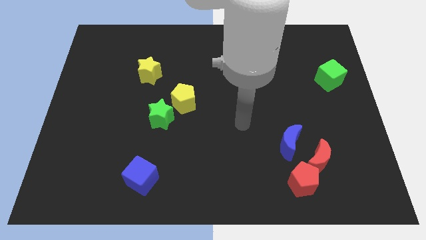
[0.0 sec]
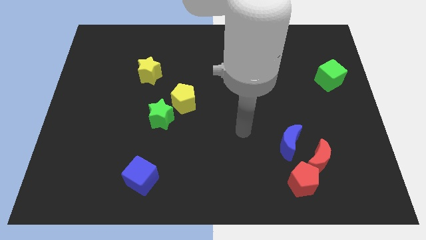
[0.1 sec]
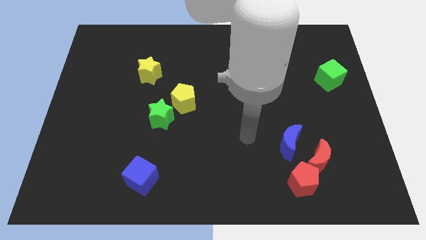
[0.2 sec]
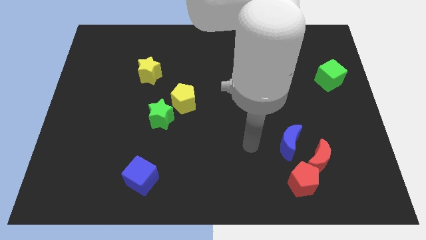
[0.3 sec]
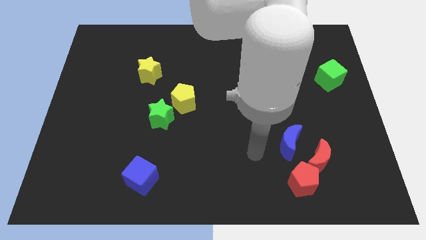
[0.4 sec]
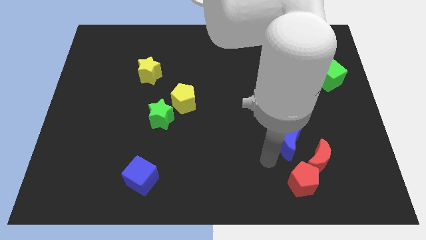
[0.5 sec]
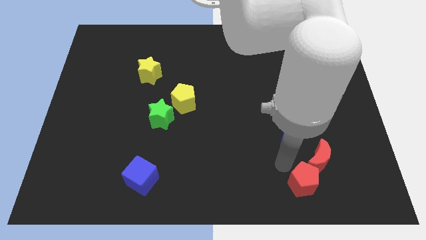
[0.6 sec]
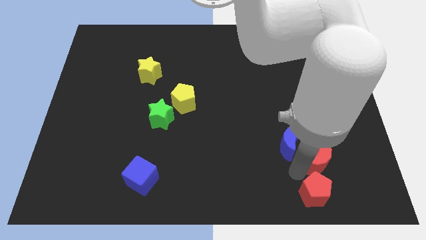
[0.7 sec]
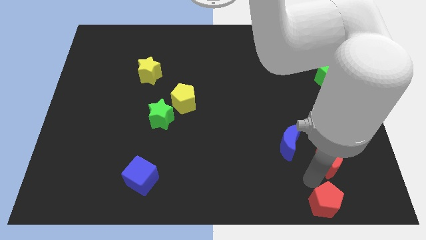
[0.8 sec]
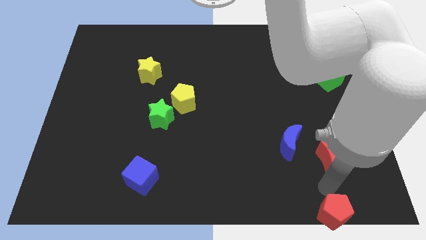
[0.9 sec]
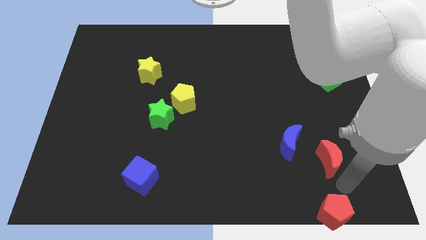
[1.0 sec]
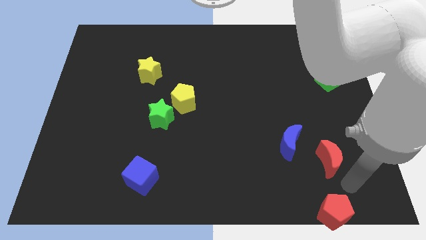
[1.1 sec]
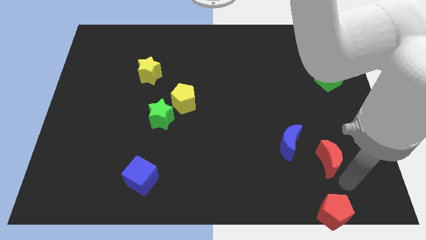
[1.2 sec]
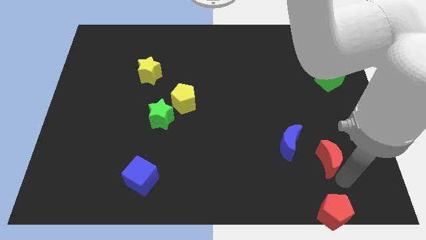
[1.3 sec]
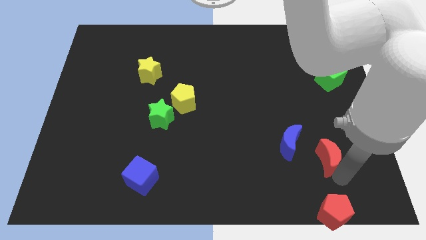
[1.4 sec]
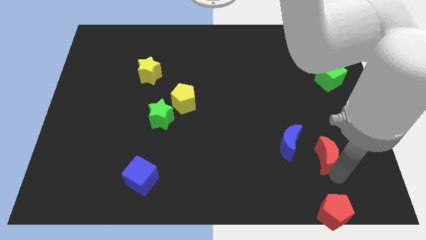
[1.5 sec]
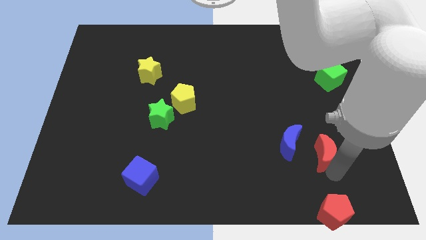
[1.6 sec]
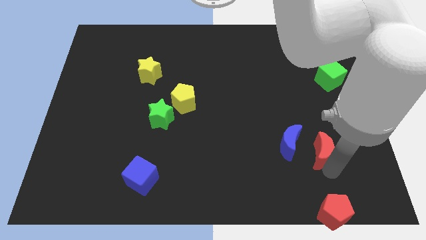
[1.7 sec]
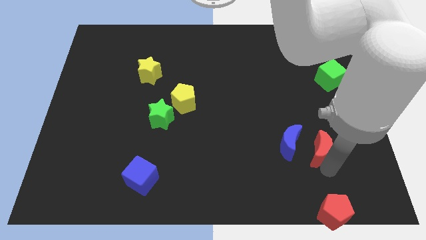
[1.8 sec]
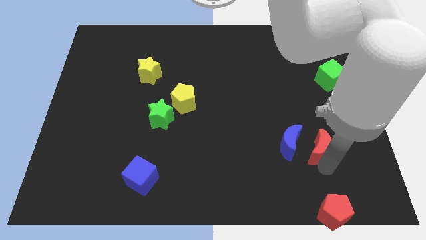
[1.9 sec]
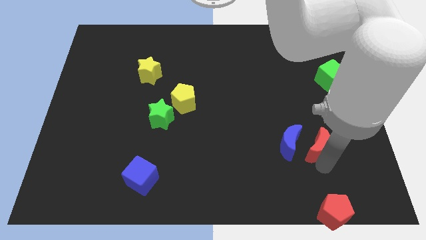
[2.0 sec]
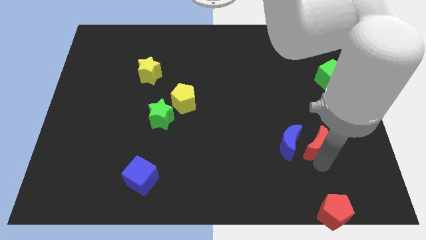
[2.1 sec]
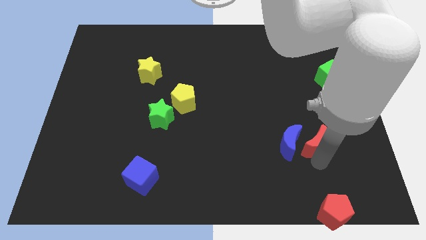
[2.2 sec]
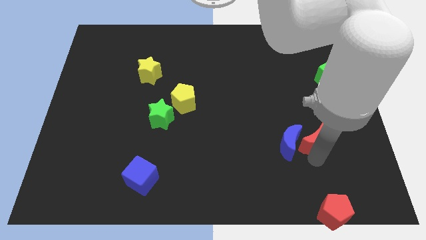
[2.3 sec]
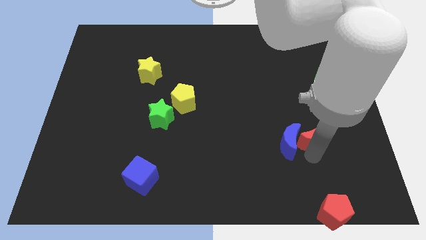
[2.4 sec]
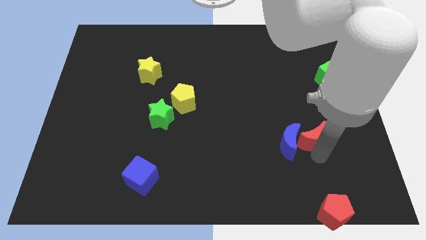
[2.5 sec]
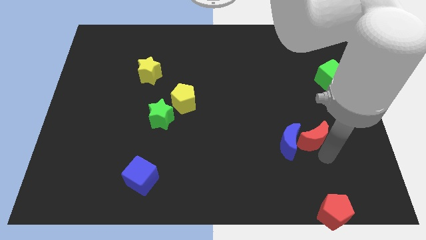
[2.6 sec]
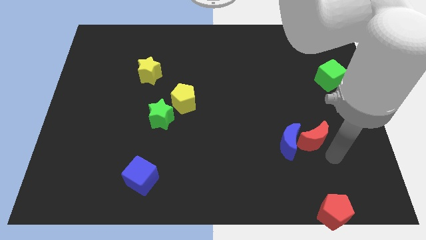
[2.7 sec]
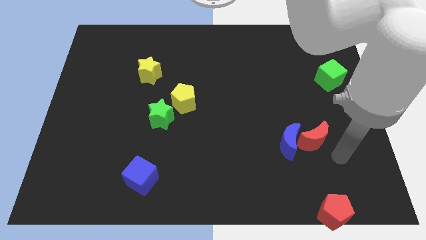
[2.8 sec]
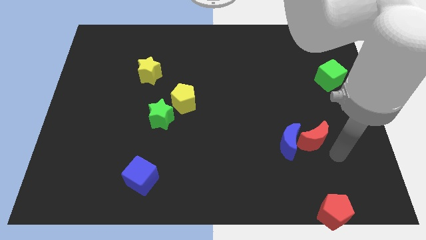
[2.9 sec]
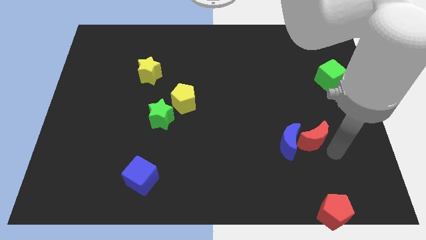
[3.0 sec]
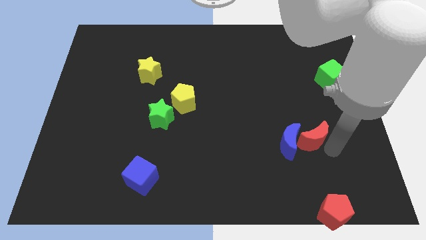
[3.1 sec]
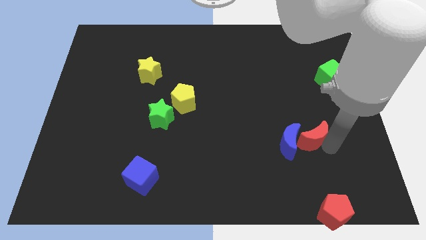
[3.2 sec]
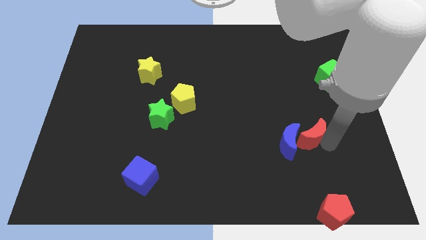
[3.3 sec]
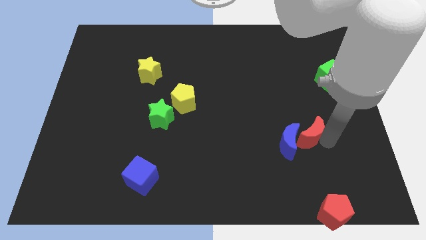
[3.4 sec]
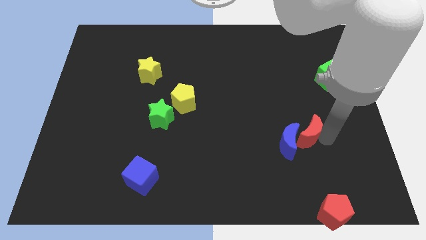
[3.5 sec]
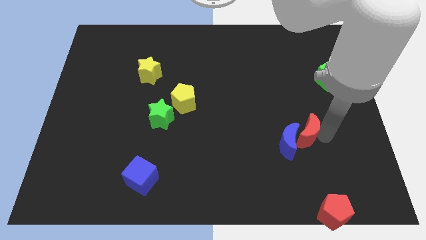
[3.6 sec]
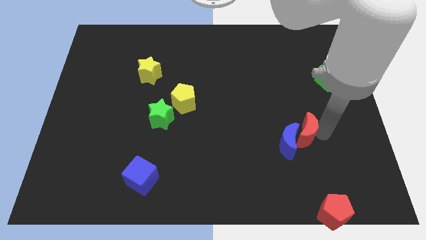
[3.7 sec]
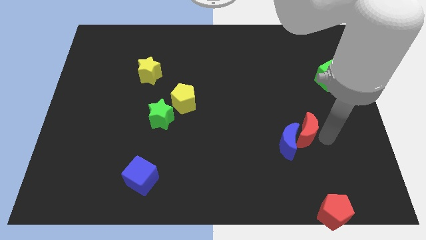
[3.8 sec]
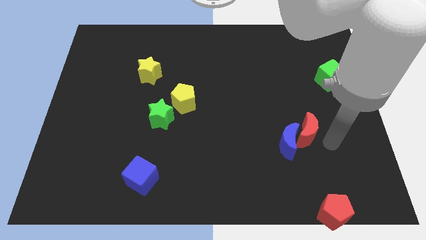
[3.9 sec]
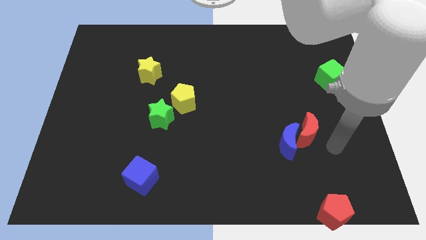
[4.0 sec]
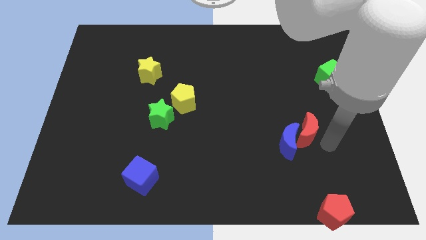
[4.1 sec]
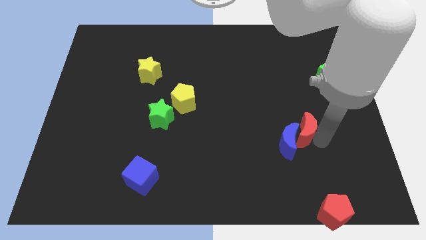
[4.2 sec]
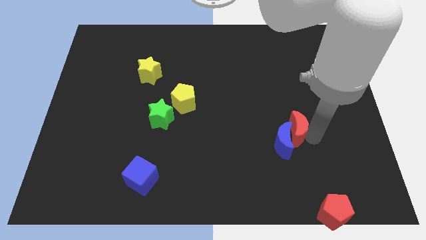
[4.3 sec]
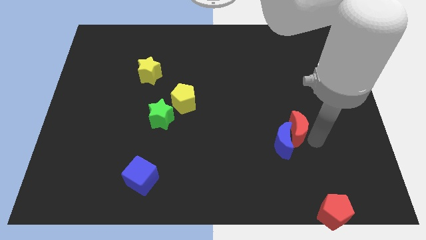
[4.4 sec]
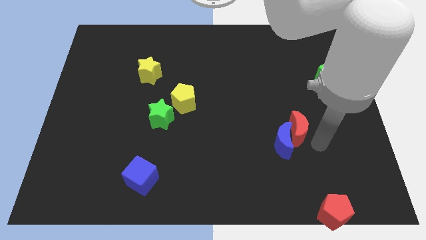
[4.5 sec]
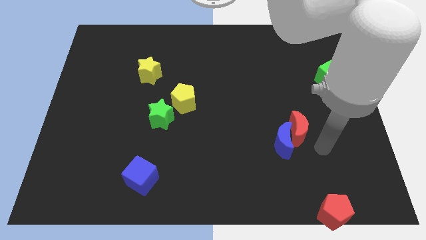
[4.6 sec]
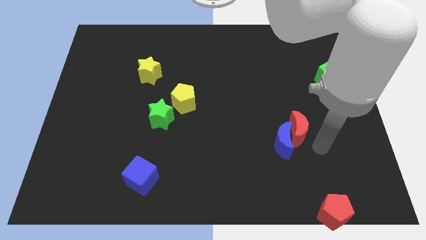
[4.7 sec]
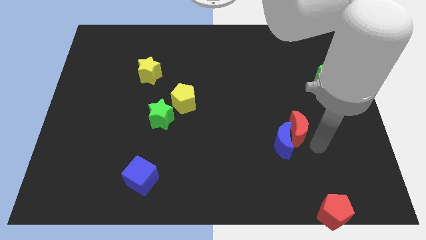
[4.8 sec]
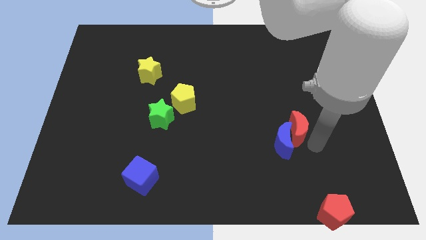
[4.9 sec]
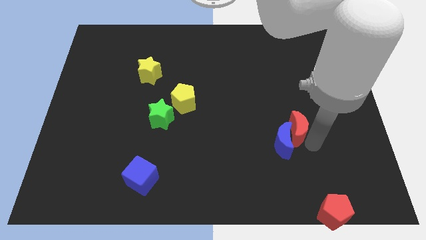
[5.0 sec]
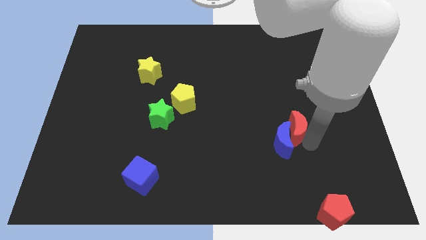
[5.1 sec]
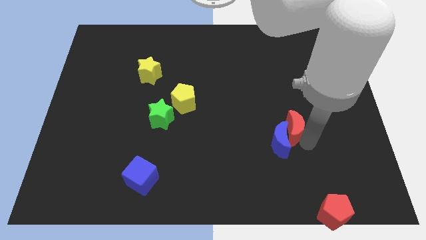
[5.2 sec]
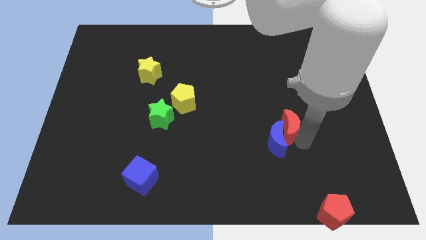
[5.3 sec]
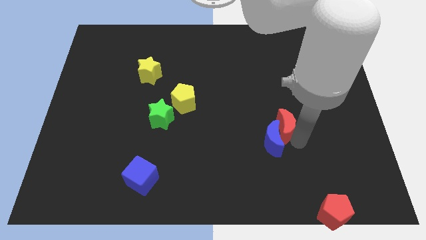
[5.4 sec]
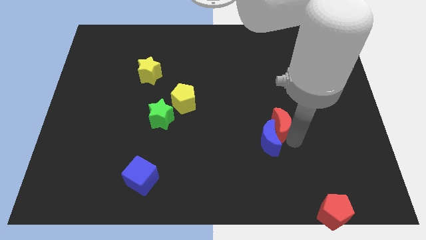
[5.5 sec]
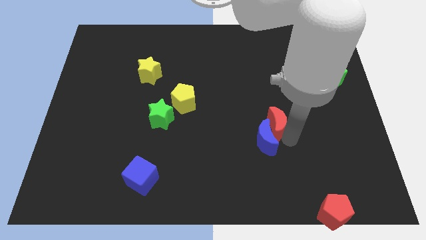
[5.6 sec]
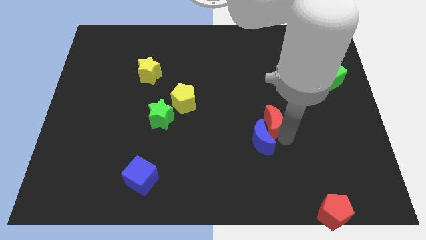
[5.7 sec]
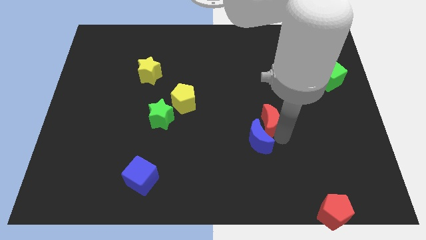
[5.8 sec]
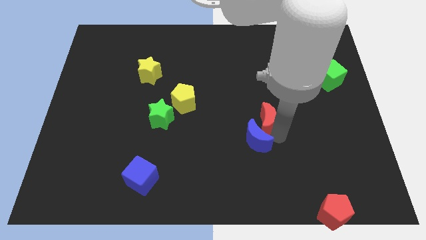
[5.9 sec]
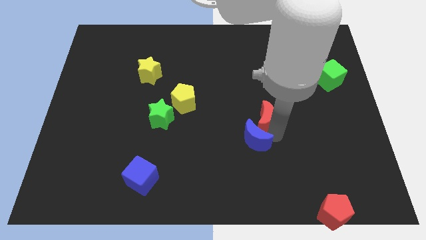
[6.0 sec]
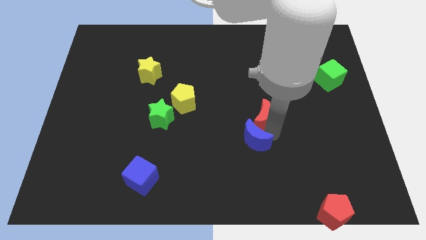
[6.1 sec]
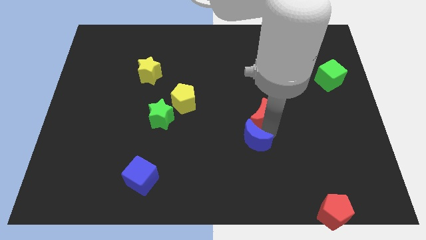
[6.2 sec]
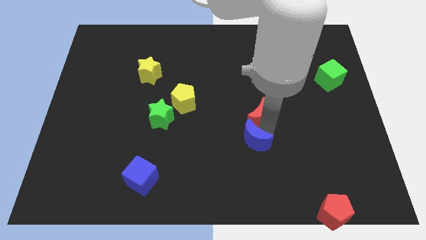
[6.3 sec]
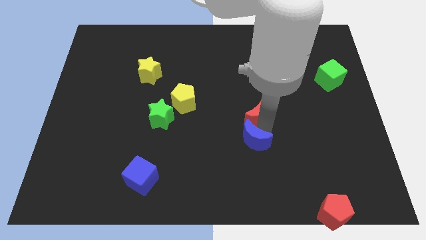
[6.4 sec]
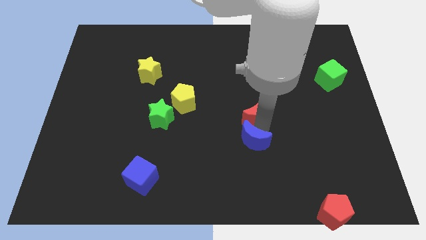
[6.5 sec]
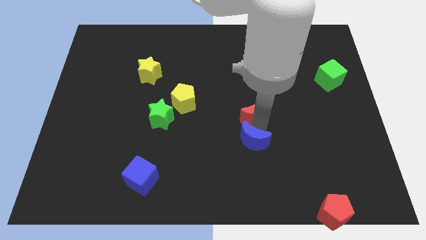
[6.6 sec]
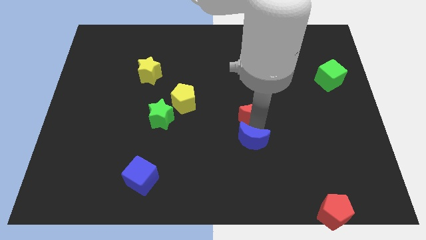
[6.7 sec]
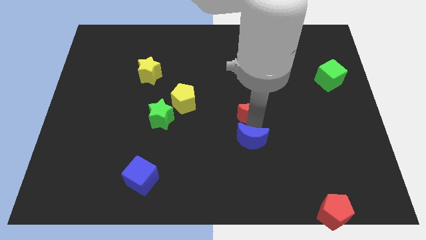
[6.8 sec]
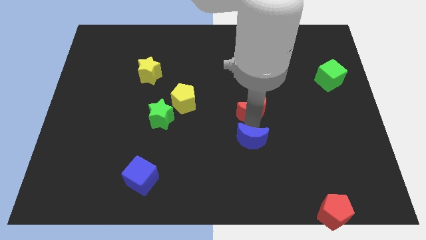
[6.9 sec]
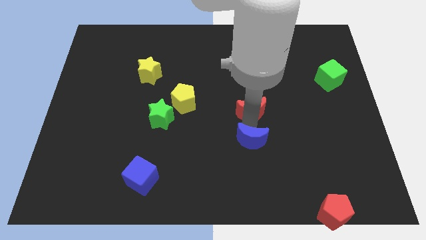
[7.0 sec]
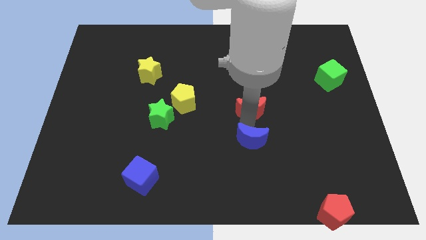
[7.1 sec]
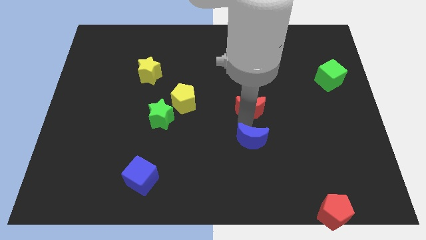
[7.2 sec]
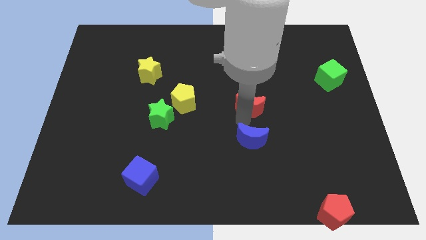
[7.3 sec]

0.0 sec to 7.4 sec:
slide the red moon upwards and to the left diagonally

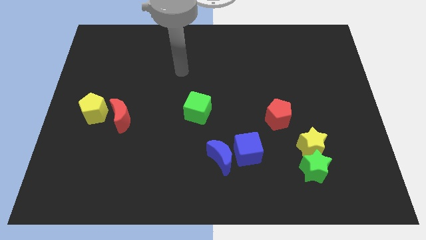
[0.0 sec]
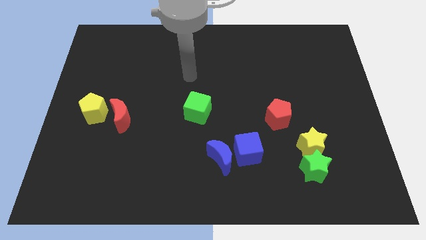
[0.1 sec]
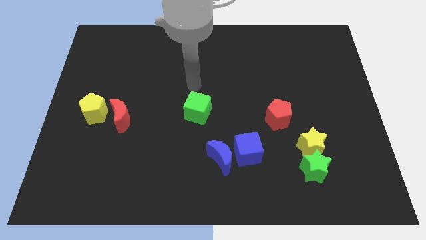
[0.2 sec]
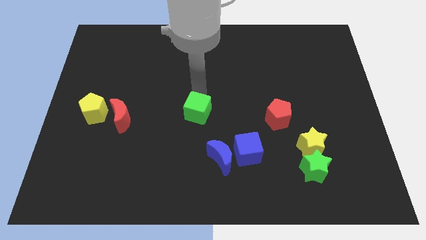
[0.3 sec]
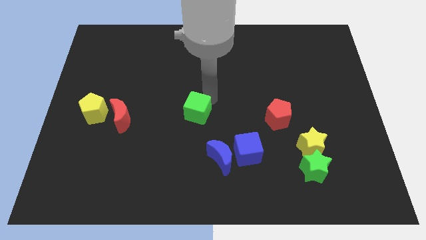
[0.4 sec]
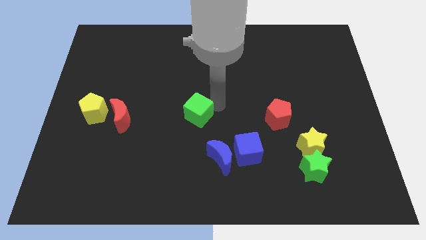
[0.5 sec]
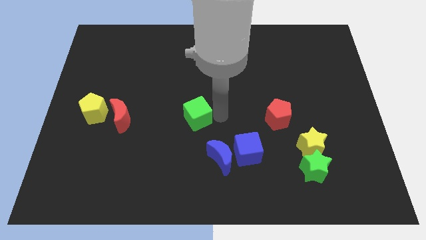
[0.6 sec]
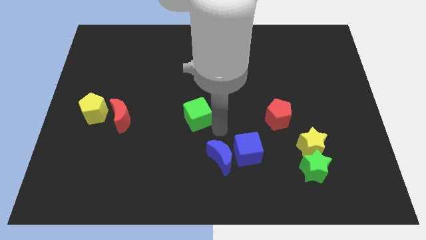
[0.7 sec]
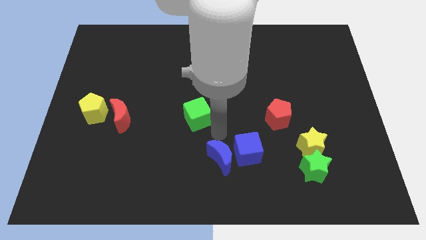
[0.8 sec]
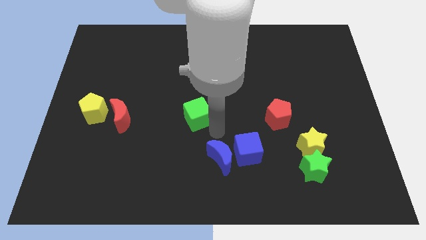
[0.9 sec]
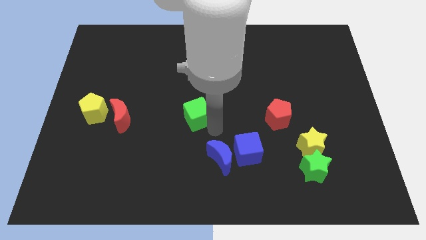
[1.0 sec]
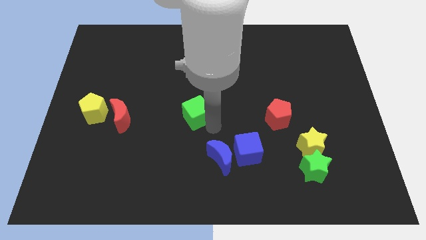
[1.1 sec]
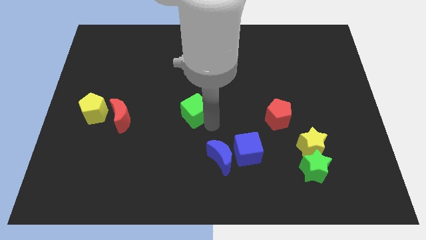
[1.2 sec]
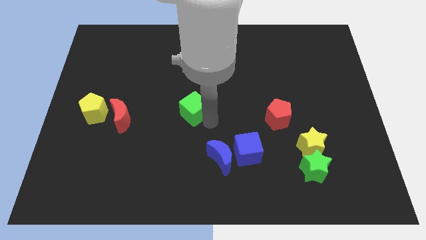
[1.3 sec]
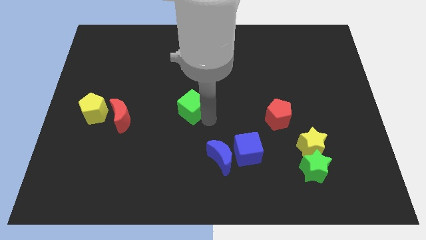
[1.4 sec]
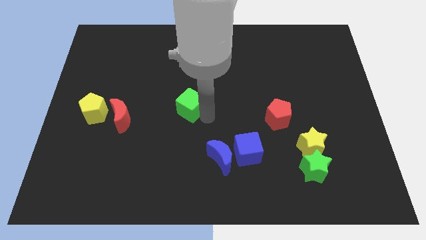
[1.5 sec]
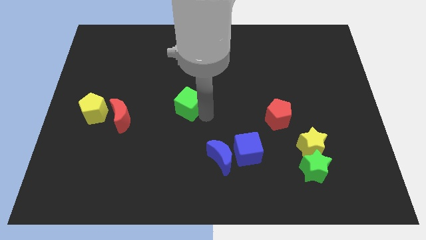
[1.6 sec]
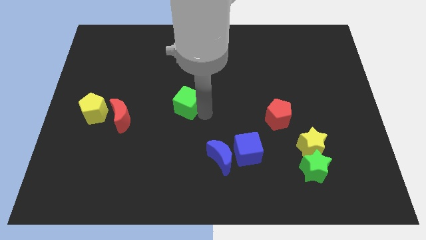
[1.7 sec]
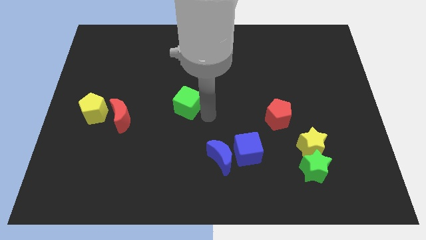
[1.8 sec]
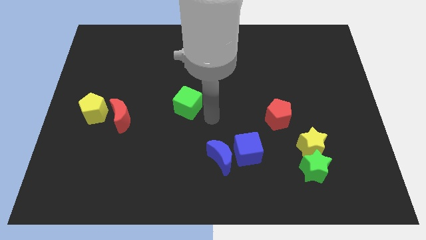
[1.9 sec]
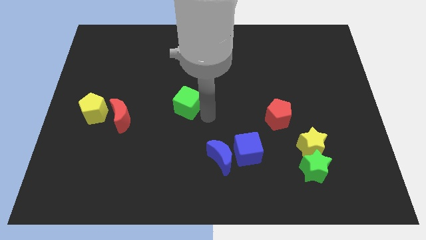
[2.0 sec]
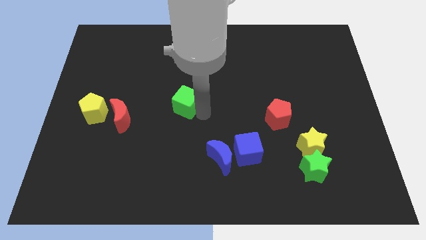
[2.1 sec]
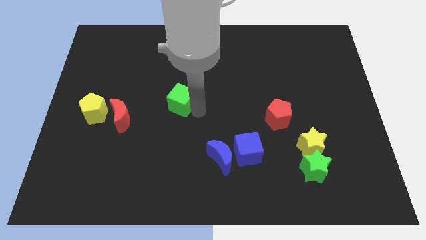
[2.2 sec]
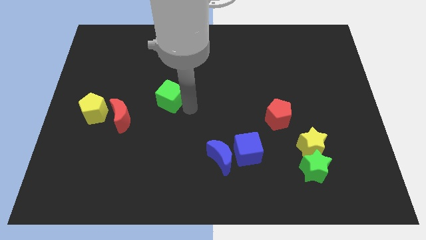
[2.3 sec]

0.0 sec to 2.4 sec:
move the green cube a little up and to the left
